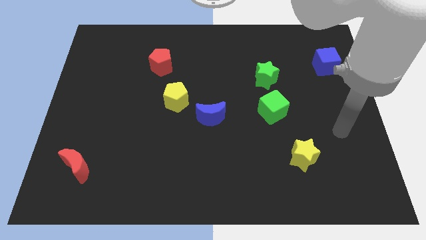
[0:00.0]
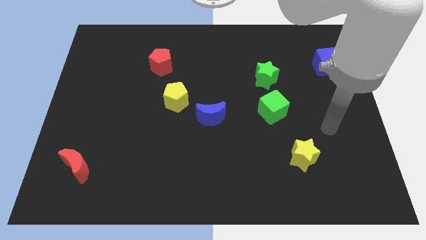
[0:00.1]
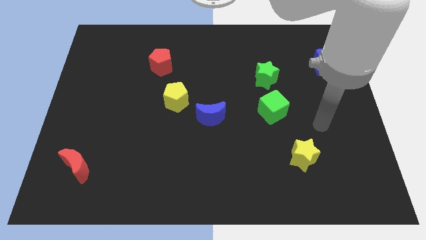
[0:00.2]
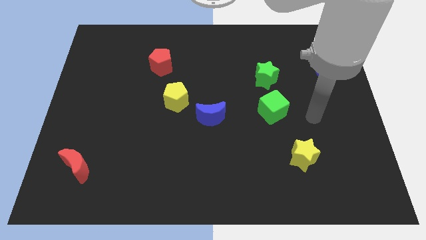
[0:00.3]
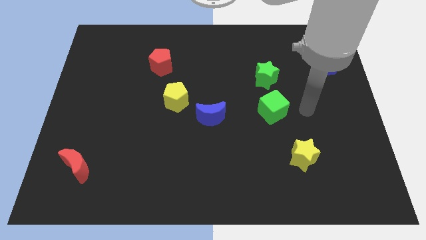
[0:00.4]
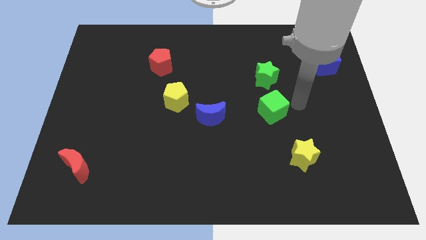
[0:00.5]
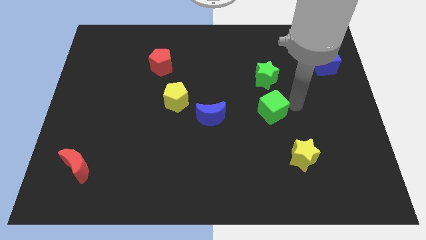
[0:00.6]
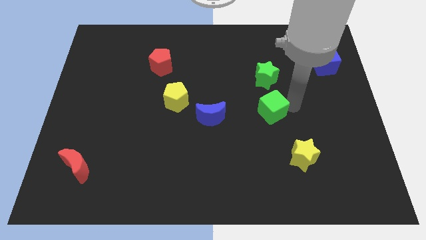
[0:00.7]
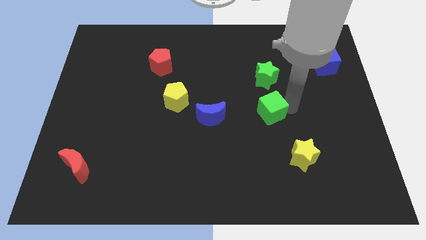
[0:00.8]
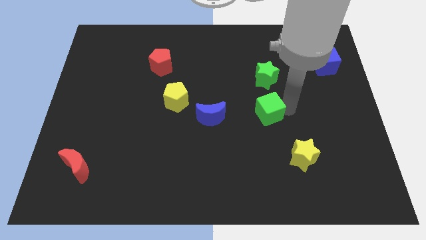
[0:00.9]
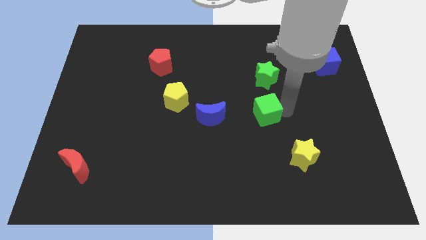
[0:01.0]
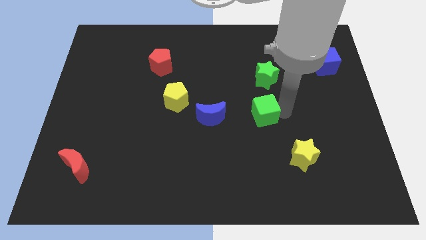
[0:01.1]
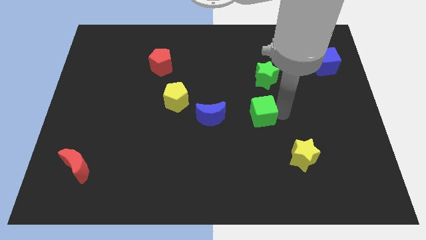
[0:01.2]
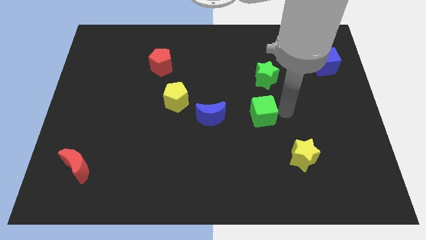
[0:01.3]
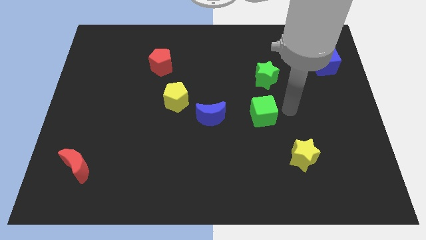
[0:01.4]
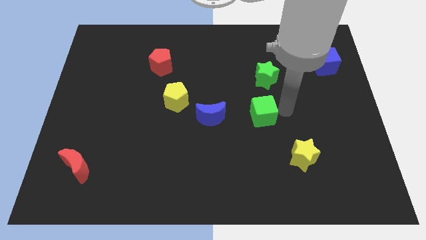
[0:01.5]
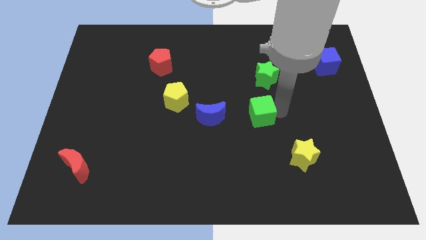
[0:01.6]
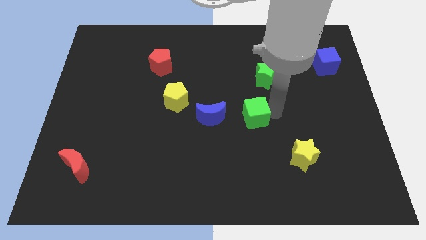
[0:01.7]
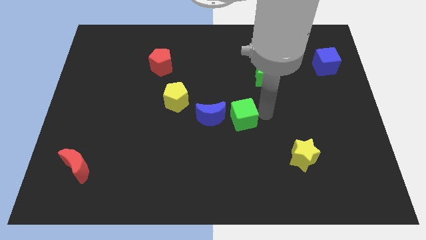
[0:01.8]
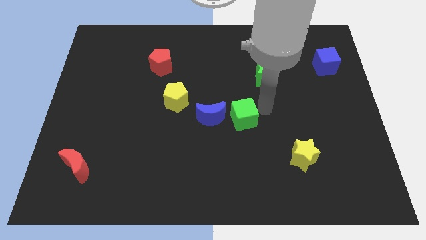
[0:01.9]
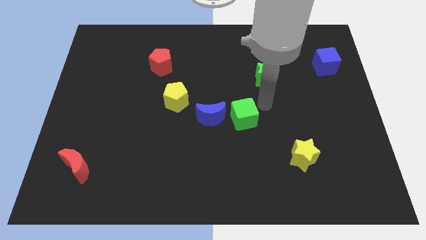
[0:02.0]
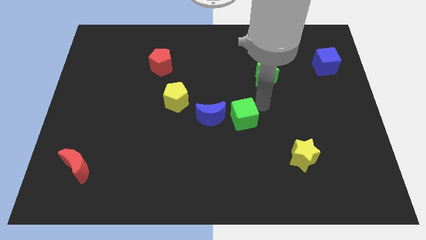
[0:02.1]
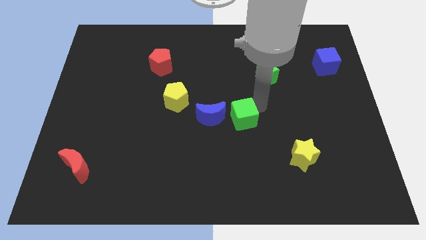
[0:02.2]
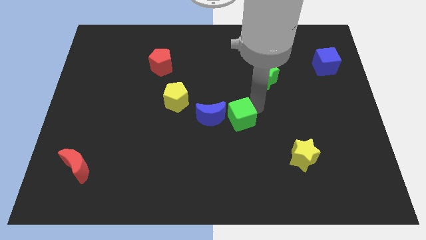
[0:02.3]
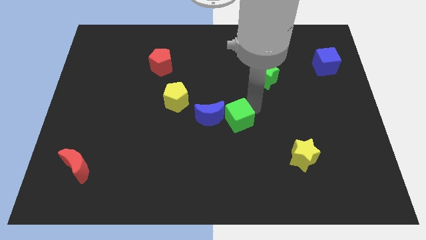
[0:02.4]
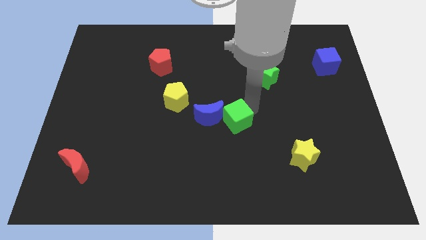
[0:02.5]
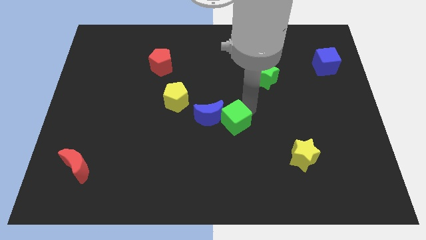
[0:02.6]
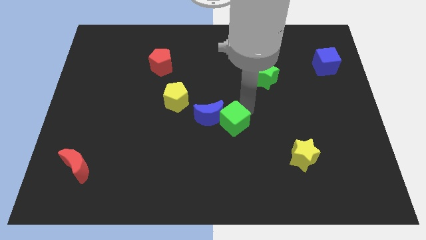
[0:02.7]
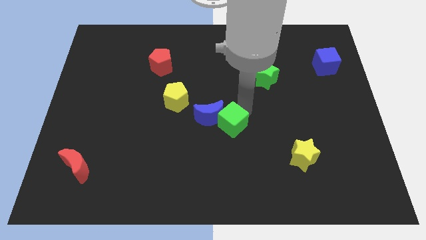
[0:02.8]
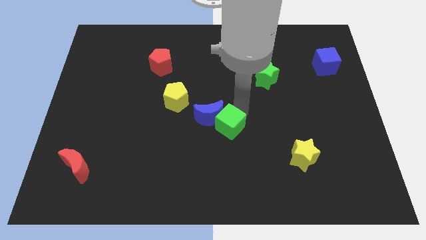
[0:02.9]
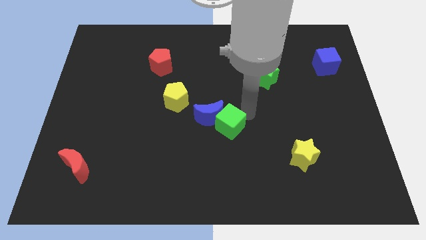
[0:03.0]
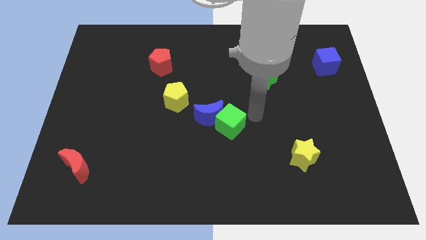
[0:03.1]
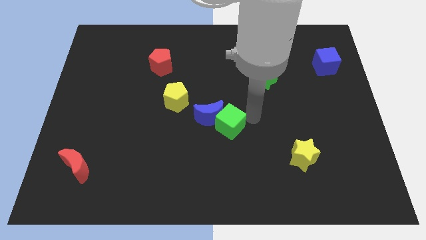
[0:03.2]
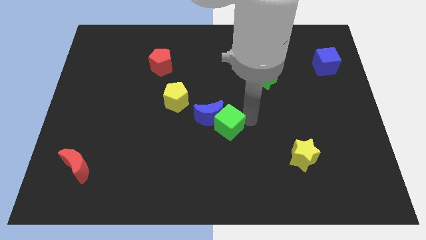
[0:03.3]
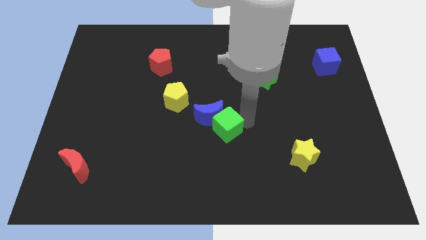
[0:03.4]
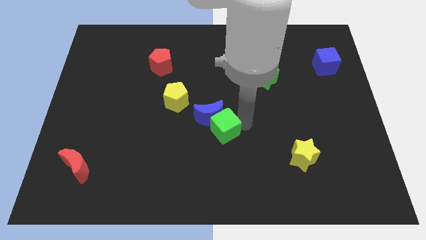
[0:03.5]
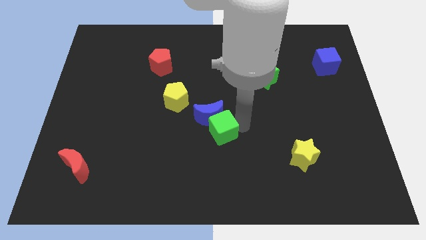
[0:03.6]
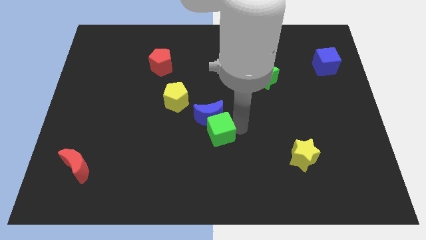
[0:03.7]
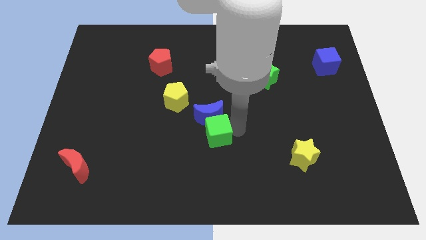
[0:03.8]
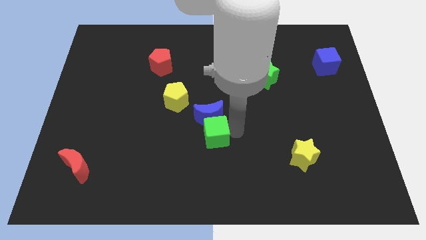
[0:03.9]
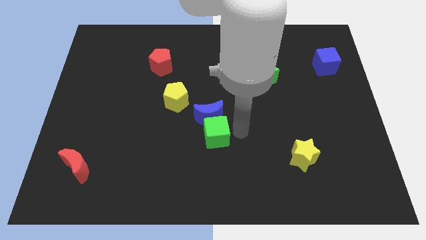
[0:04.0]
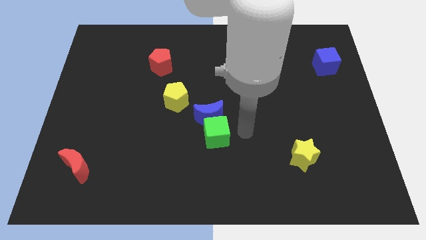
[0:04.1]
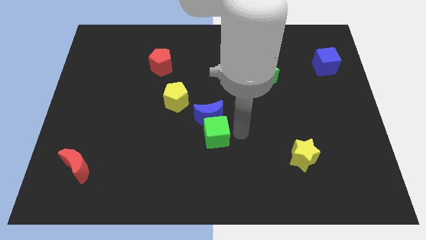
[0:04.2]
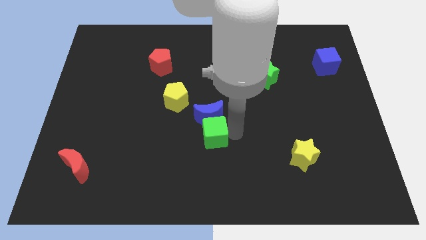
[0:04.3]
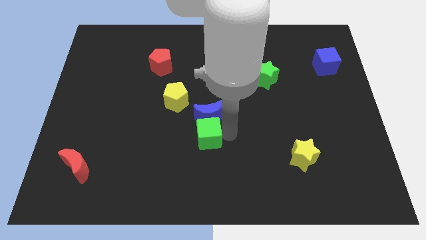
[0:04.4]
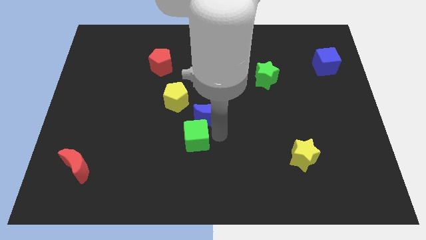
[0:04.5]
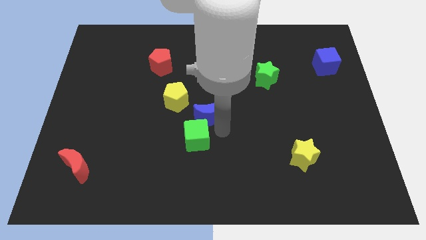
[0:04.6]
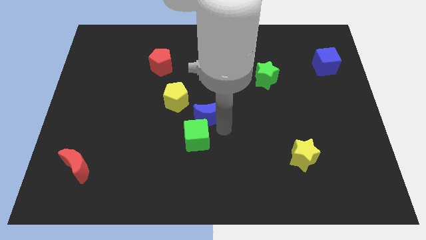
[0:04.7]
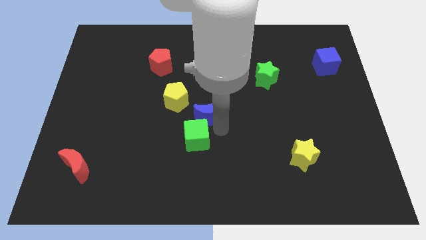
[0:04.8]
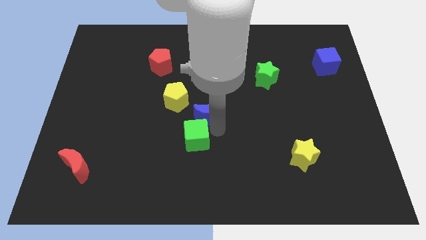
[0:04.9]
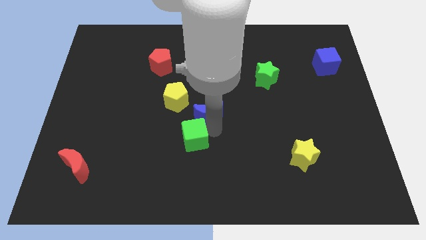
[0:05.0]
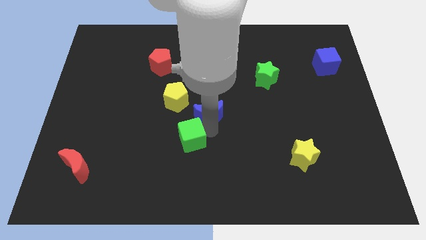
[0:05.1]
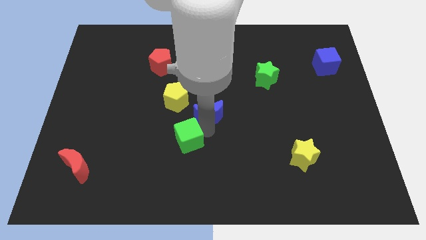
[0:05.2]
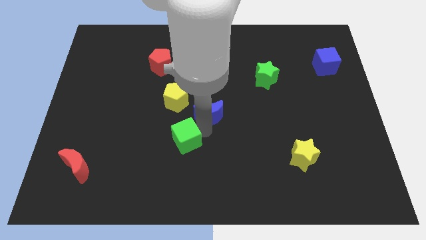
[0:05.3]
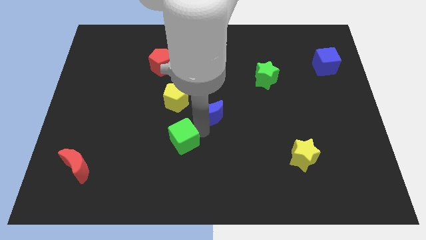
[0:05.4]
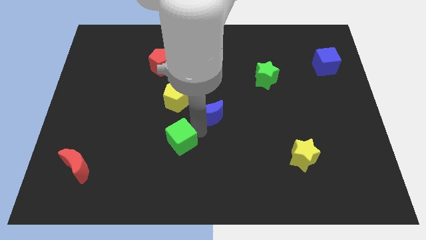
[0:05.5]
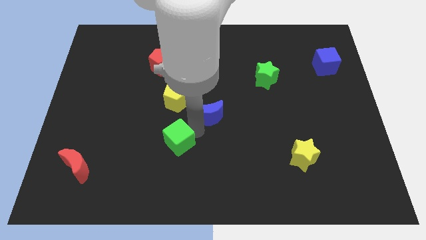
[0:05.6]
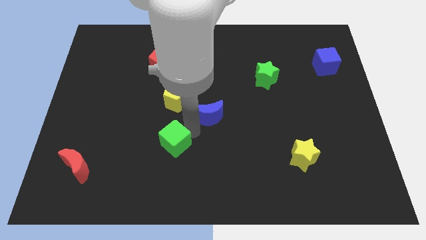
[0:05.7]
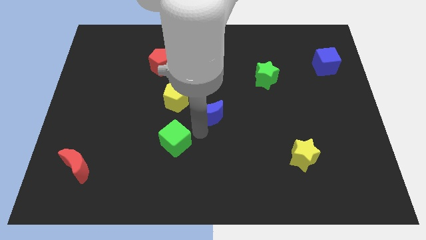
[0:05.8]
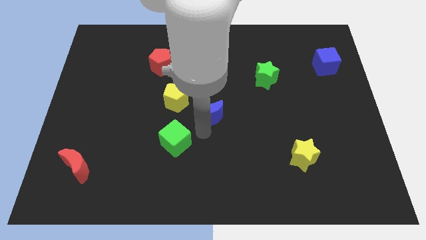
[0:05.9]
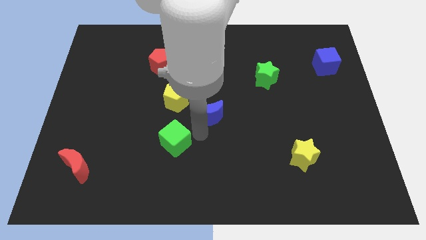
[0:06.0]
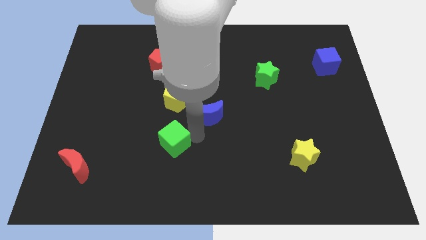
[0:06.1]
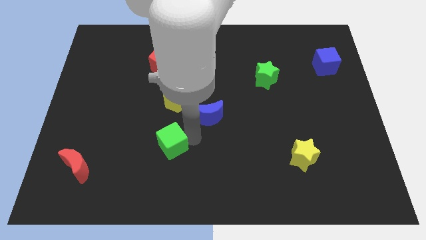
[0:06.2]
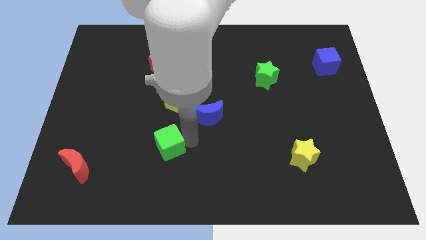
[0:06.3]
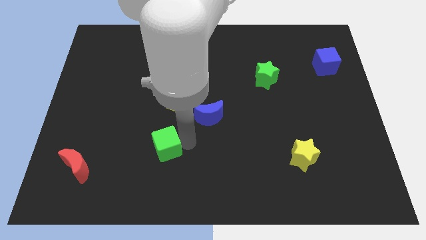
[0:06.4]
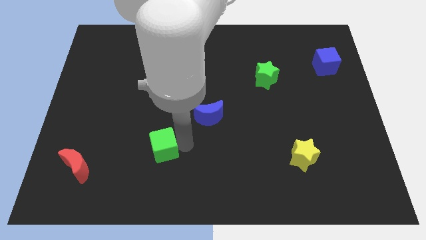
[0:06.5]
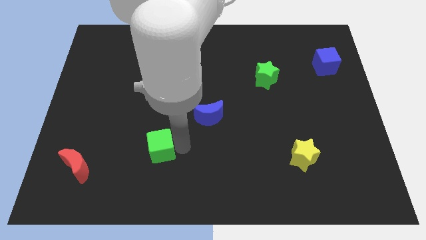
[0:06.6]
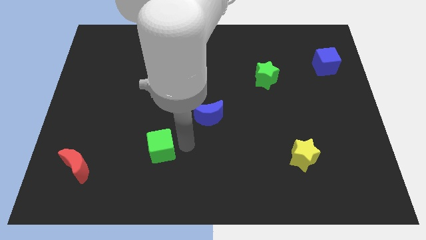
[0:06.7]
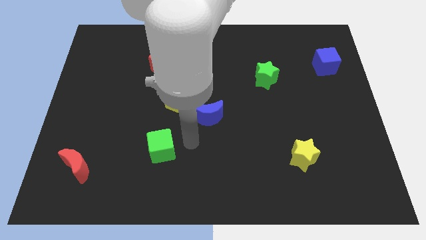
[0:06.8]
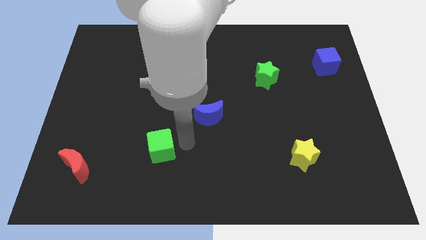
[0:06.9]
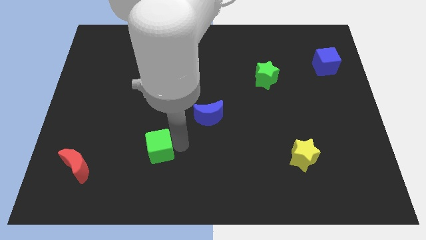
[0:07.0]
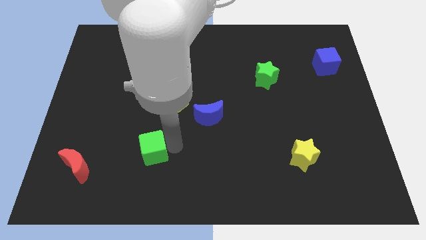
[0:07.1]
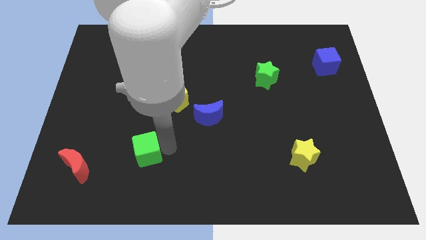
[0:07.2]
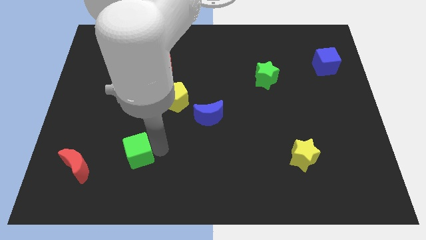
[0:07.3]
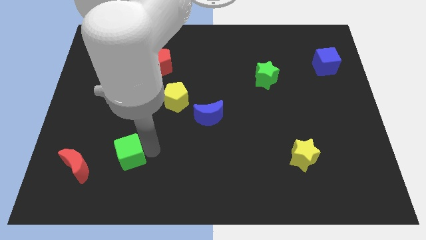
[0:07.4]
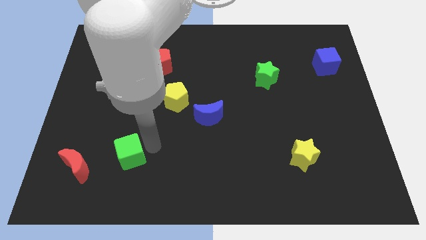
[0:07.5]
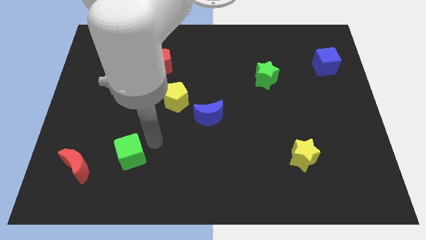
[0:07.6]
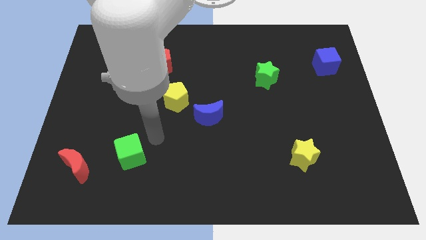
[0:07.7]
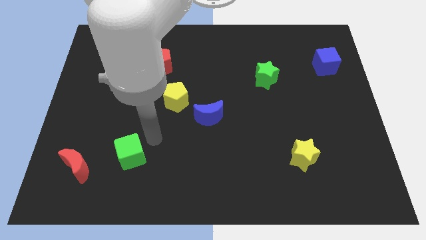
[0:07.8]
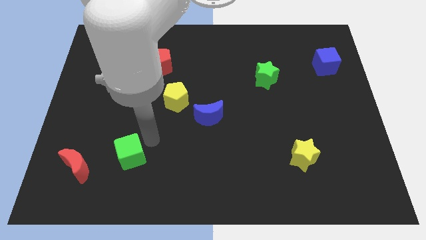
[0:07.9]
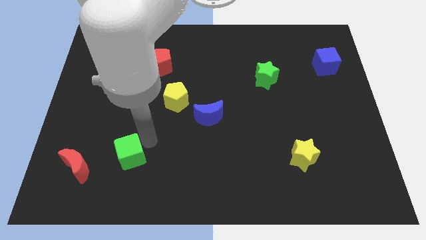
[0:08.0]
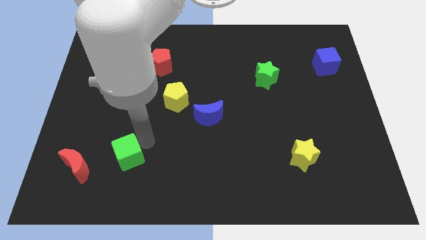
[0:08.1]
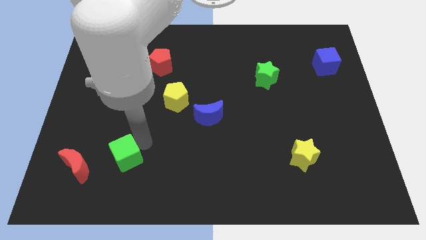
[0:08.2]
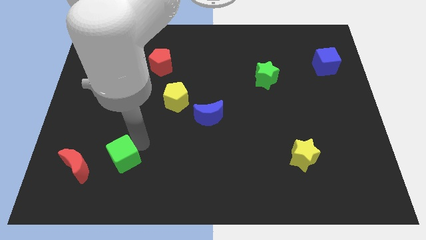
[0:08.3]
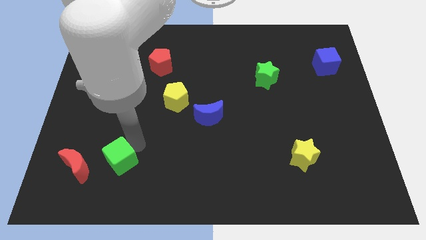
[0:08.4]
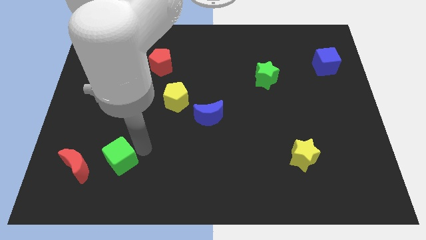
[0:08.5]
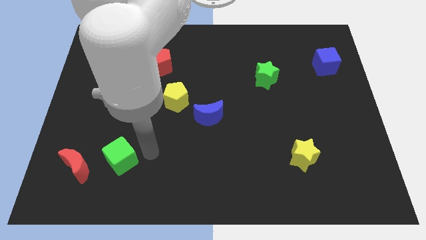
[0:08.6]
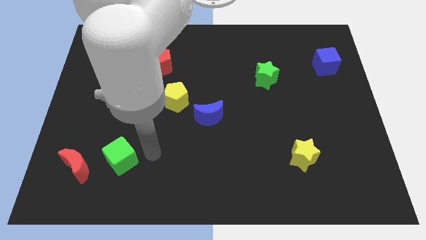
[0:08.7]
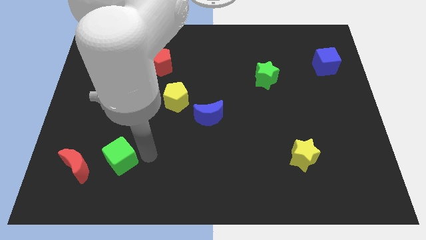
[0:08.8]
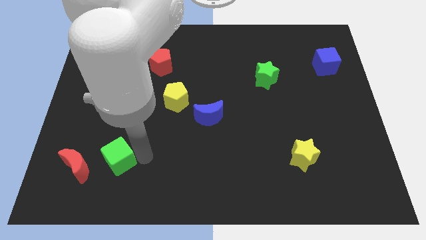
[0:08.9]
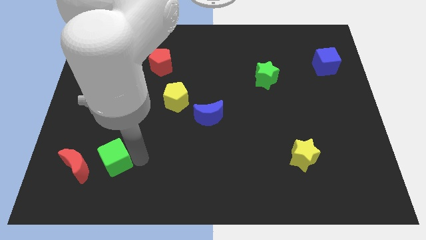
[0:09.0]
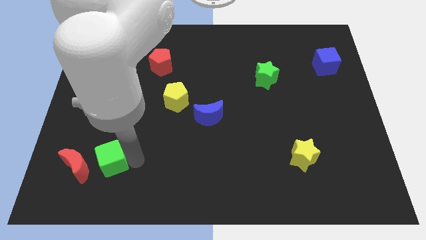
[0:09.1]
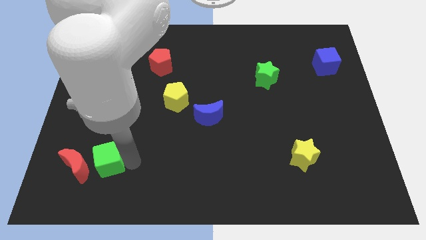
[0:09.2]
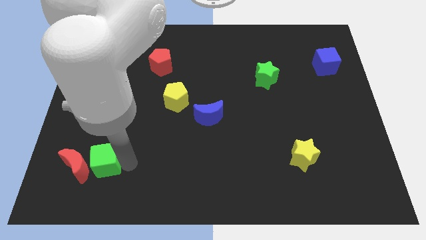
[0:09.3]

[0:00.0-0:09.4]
push the green cube close to the red moon
